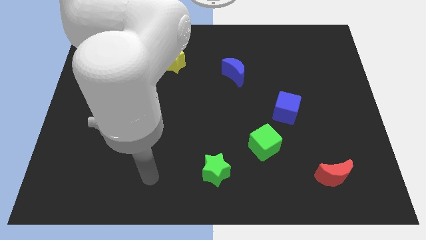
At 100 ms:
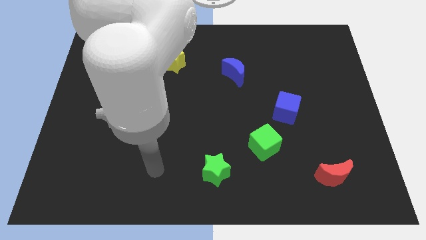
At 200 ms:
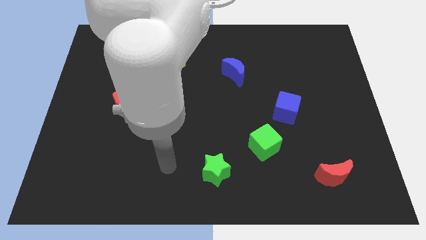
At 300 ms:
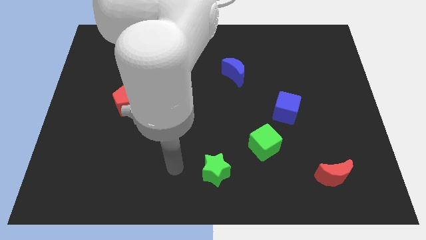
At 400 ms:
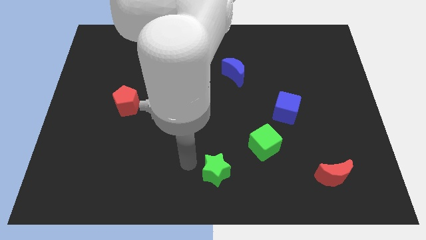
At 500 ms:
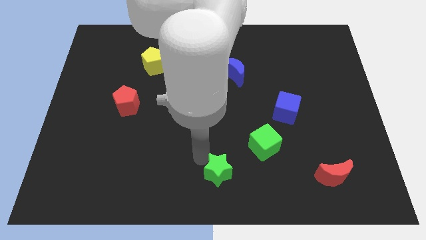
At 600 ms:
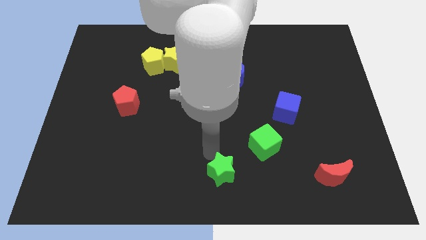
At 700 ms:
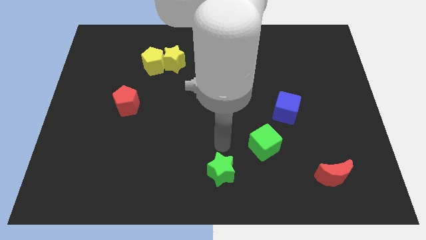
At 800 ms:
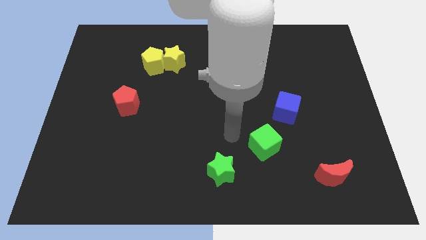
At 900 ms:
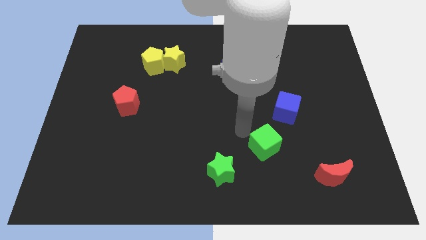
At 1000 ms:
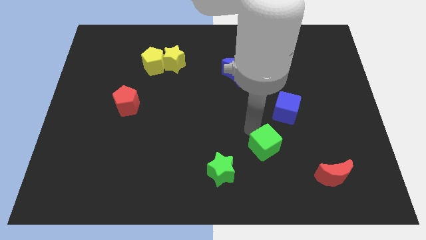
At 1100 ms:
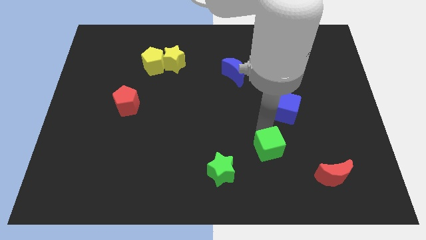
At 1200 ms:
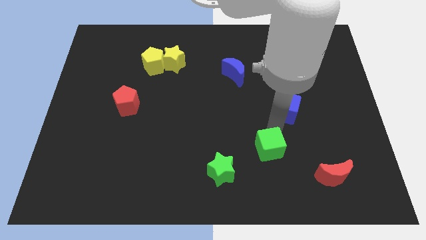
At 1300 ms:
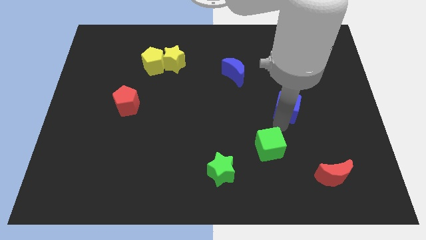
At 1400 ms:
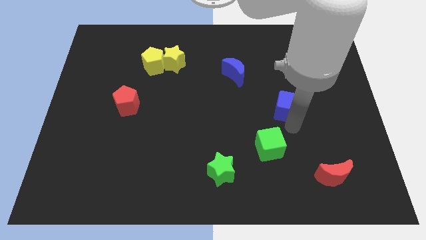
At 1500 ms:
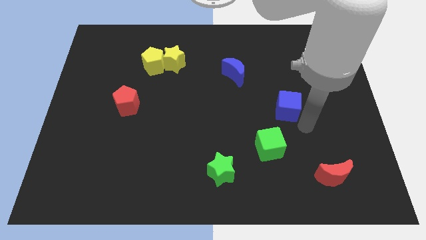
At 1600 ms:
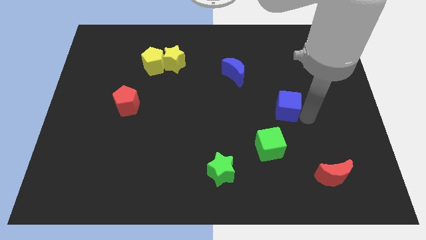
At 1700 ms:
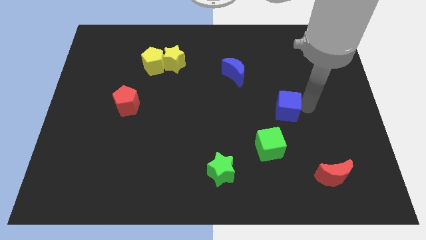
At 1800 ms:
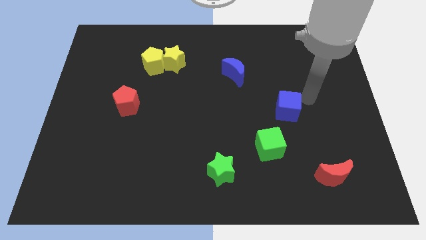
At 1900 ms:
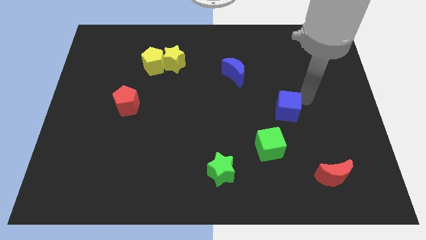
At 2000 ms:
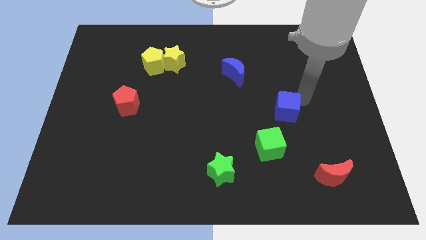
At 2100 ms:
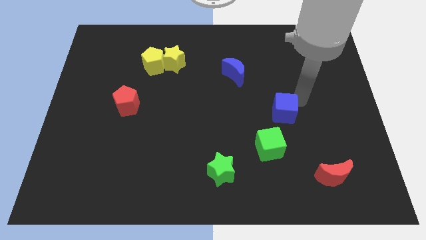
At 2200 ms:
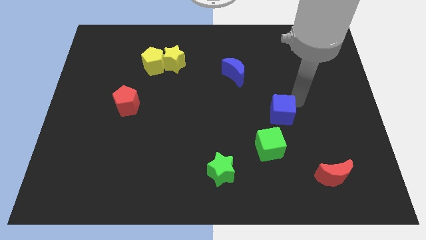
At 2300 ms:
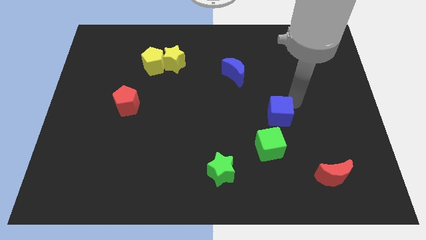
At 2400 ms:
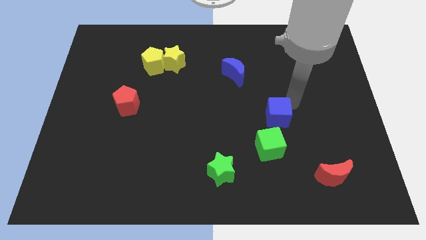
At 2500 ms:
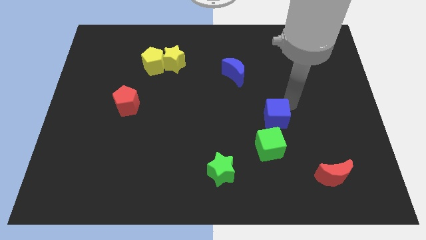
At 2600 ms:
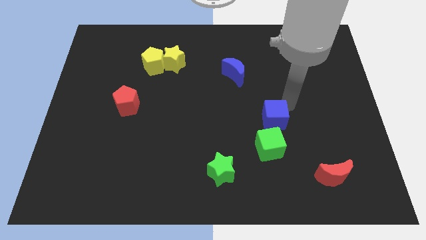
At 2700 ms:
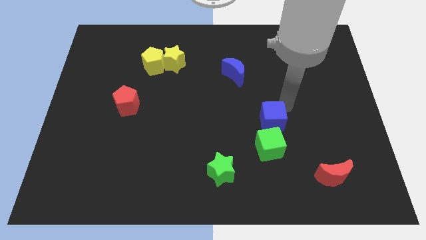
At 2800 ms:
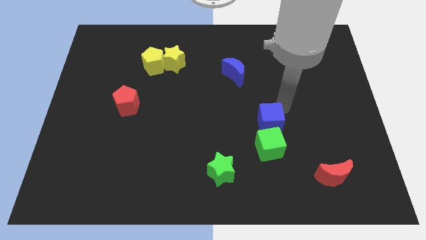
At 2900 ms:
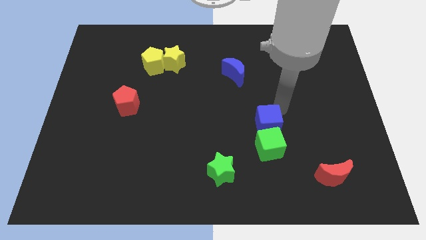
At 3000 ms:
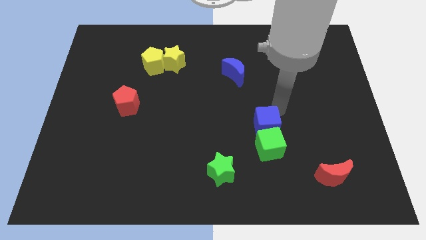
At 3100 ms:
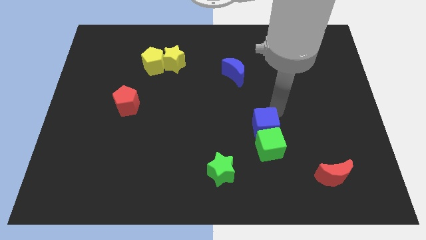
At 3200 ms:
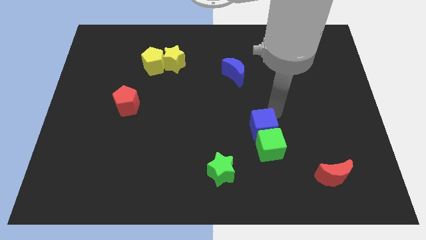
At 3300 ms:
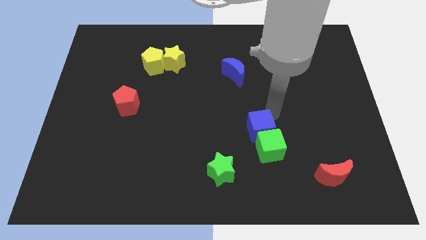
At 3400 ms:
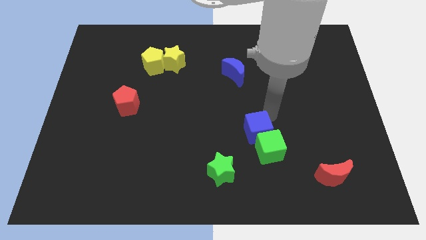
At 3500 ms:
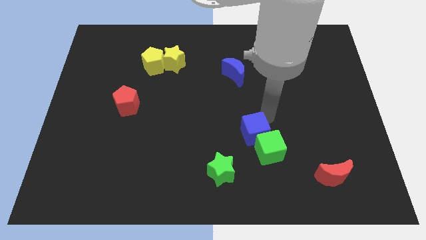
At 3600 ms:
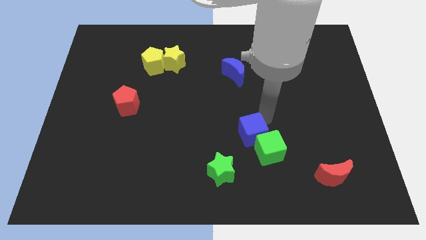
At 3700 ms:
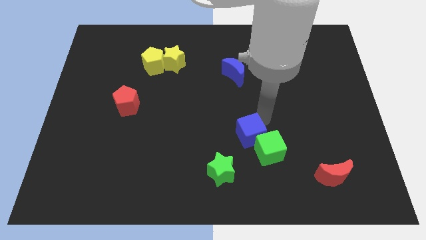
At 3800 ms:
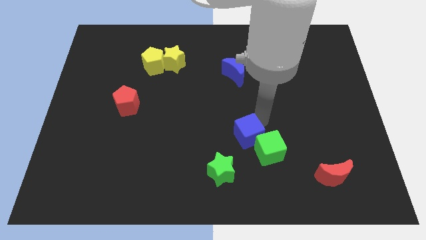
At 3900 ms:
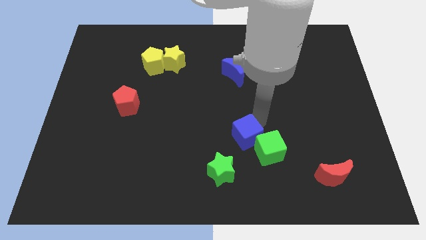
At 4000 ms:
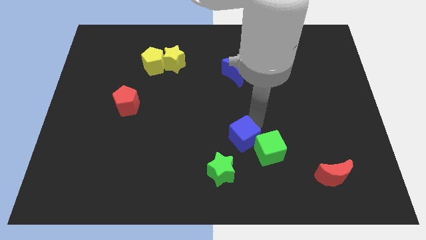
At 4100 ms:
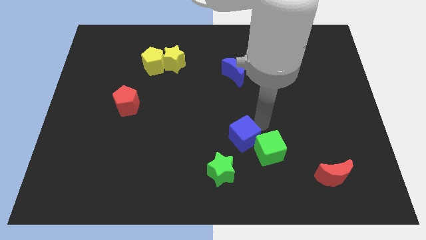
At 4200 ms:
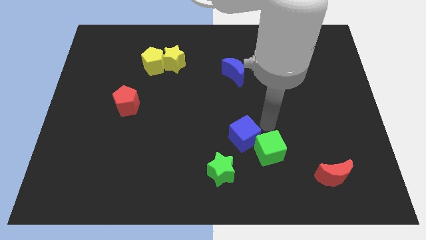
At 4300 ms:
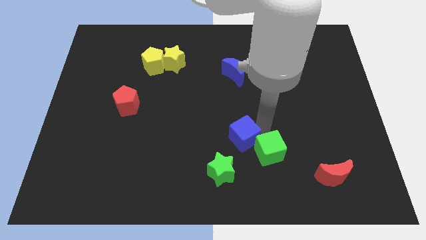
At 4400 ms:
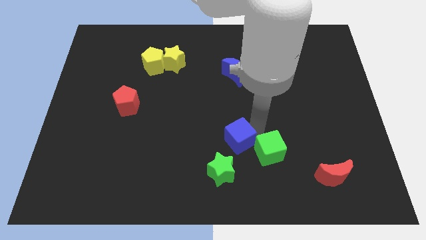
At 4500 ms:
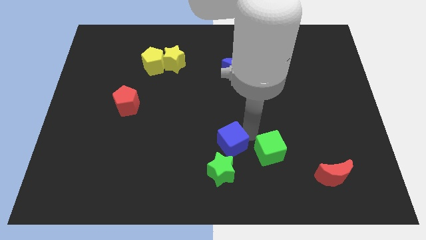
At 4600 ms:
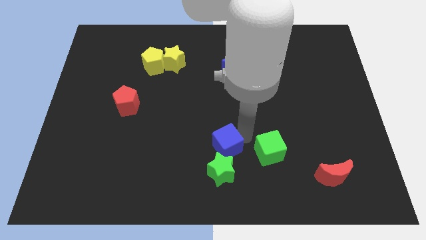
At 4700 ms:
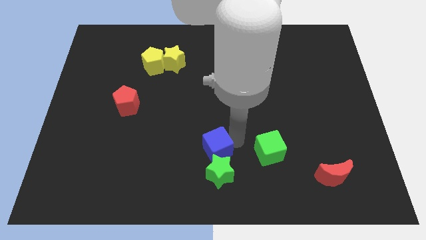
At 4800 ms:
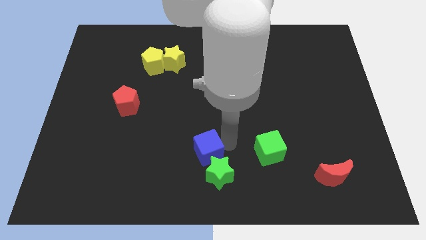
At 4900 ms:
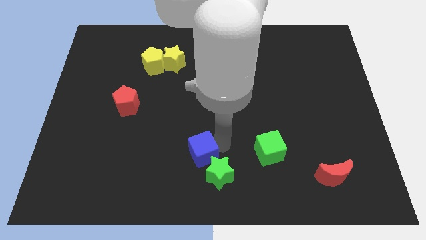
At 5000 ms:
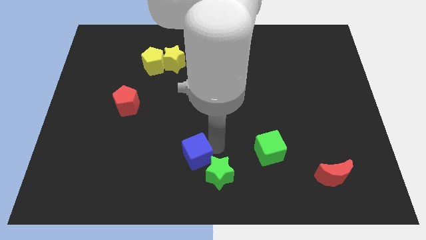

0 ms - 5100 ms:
move the blue cube to the left of the green star

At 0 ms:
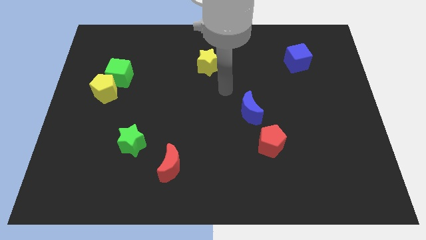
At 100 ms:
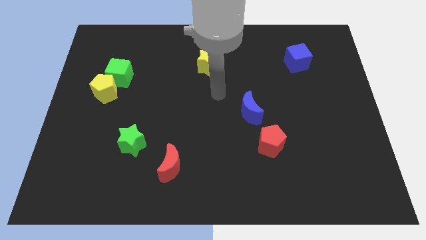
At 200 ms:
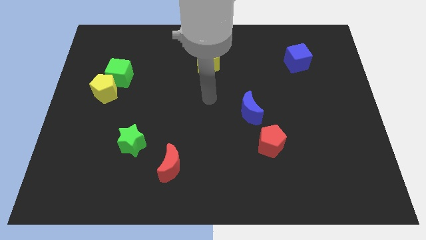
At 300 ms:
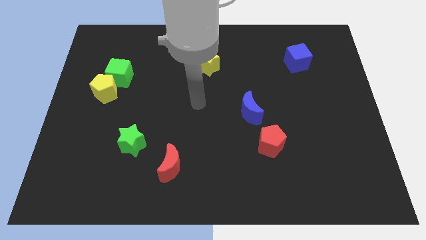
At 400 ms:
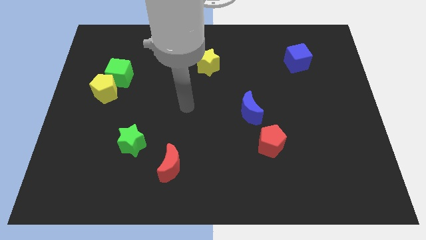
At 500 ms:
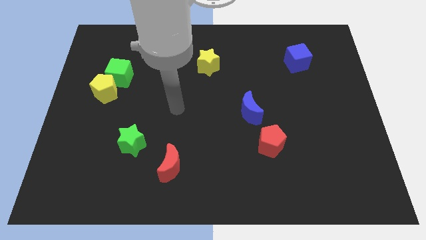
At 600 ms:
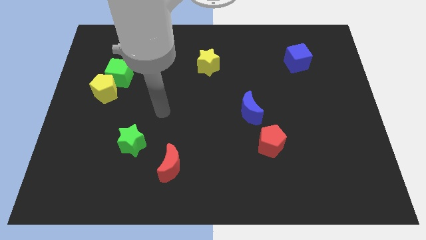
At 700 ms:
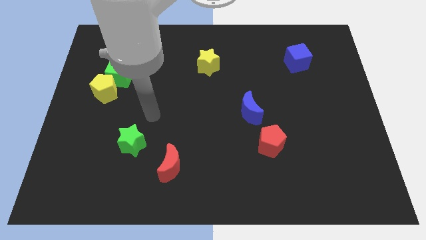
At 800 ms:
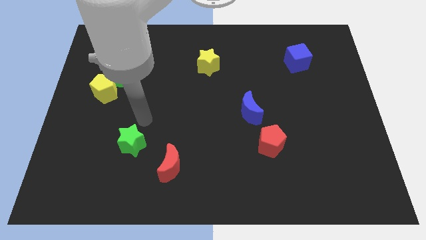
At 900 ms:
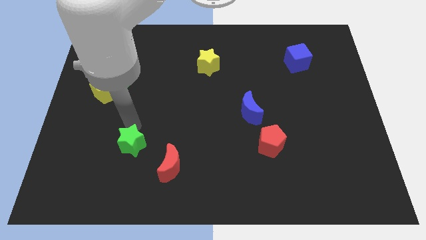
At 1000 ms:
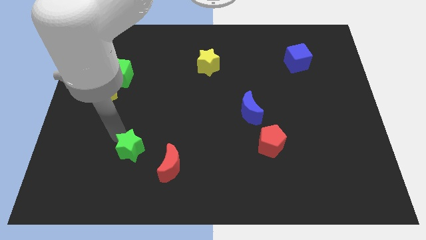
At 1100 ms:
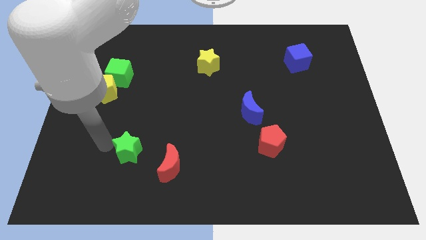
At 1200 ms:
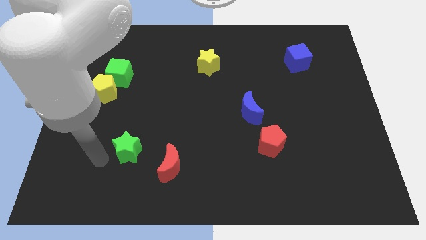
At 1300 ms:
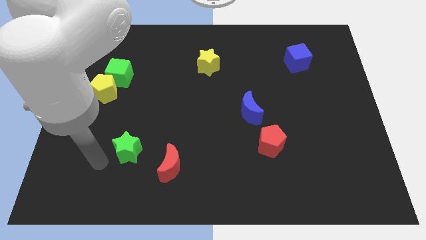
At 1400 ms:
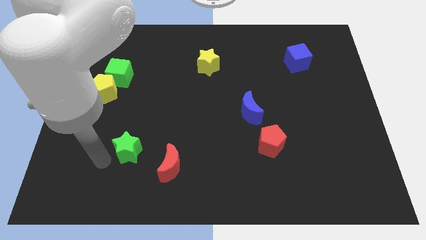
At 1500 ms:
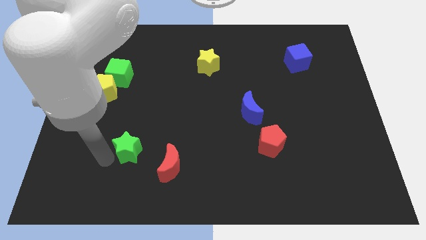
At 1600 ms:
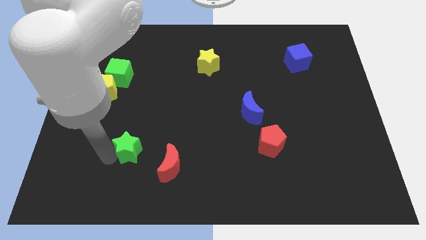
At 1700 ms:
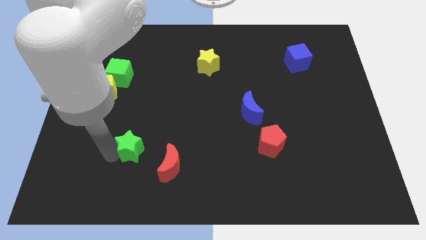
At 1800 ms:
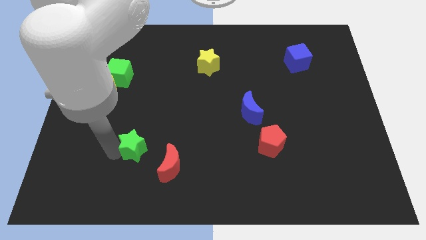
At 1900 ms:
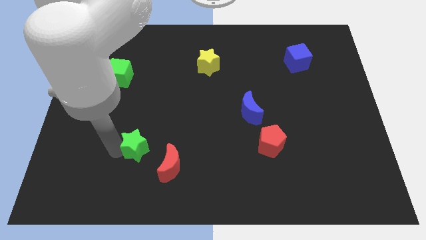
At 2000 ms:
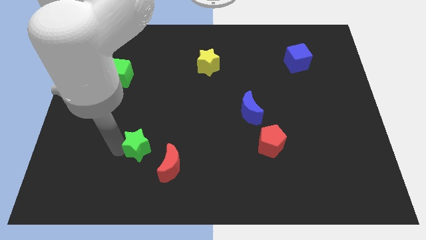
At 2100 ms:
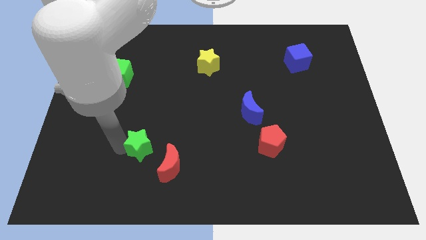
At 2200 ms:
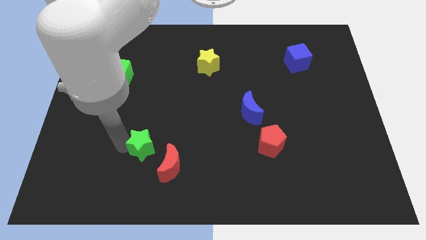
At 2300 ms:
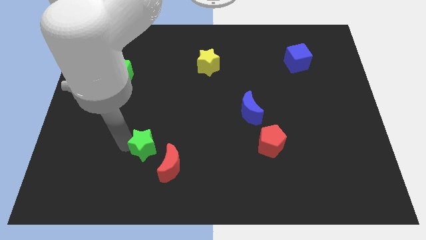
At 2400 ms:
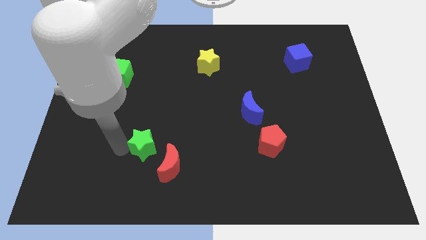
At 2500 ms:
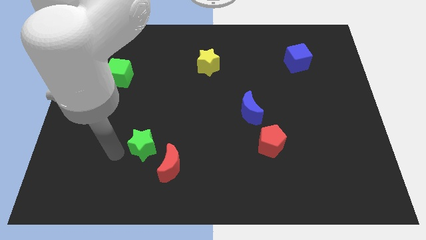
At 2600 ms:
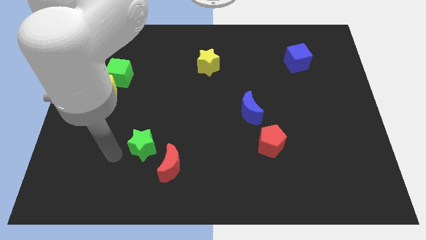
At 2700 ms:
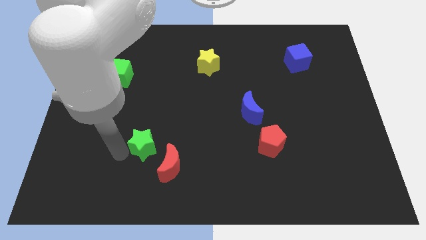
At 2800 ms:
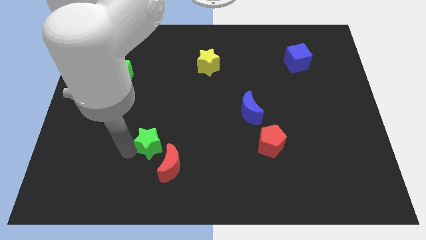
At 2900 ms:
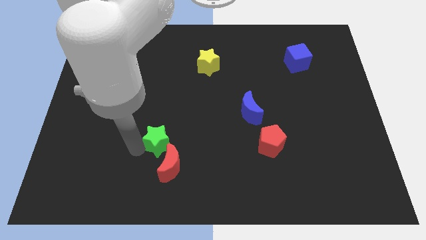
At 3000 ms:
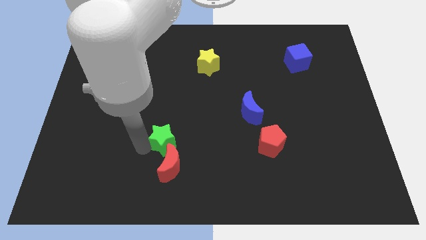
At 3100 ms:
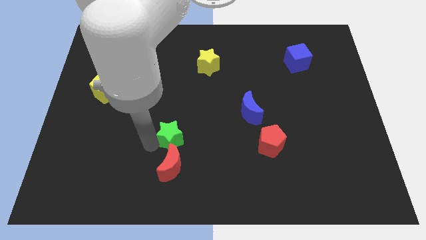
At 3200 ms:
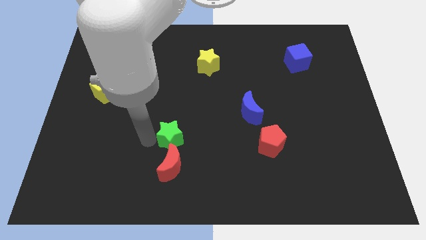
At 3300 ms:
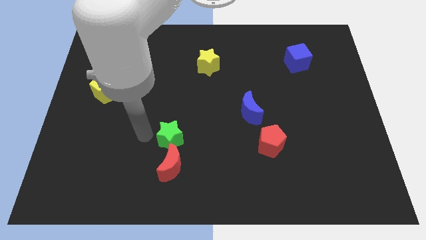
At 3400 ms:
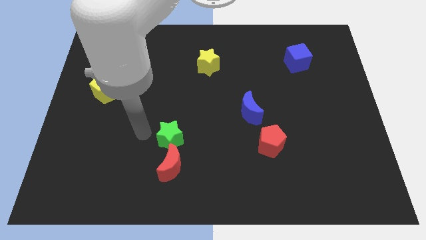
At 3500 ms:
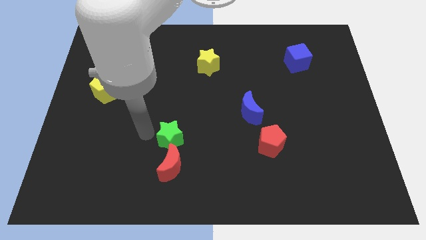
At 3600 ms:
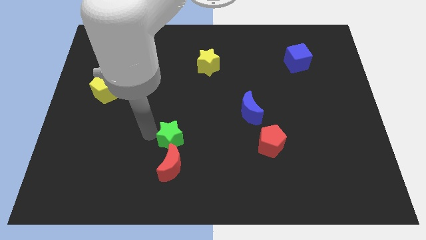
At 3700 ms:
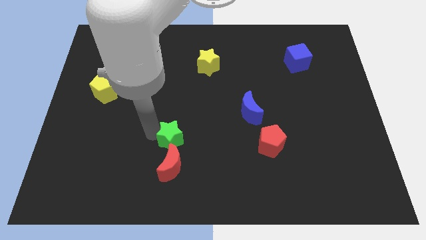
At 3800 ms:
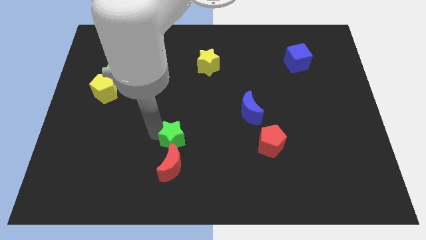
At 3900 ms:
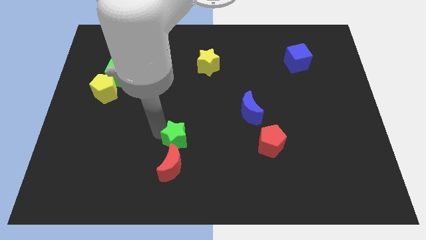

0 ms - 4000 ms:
put the green star to the top right of the red moon
